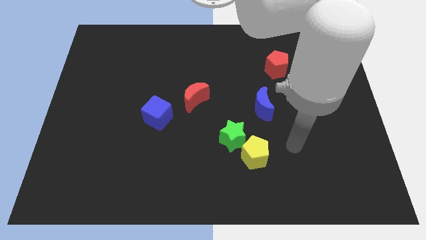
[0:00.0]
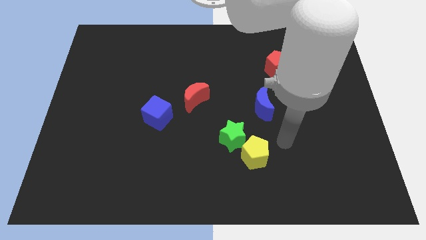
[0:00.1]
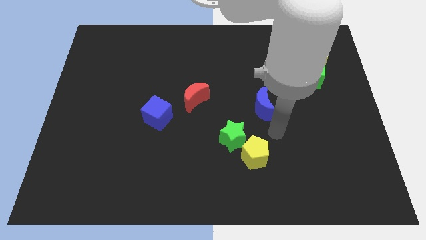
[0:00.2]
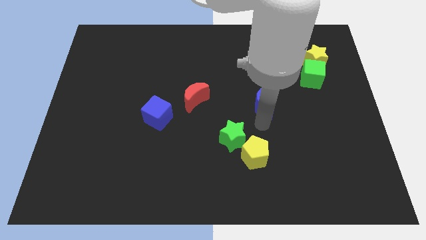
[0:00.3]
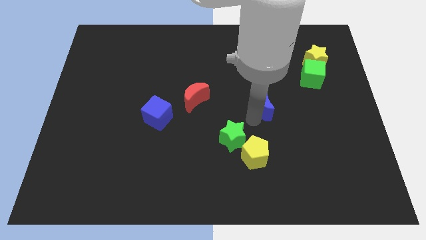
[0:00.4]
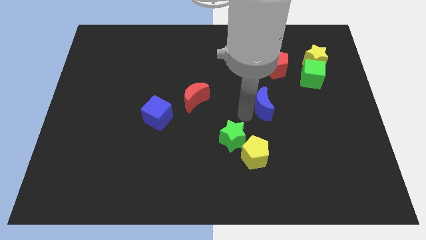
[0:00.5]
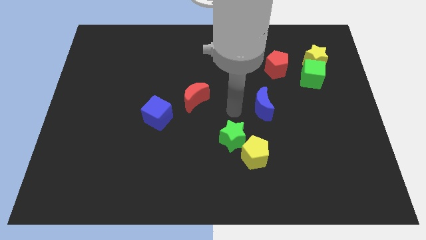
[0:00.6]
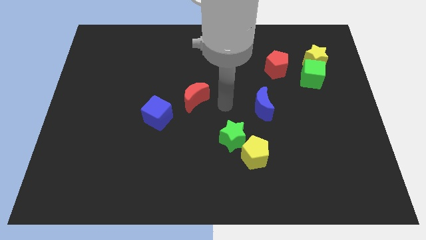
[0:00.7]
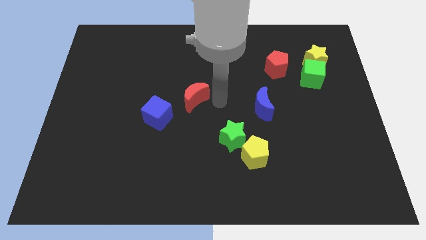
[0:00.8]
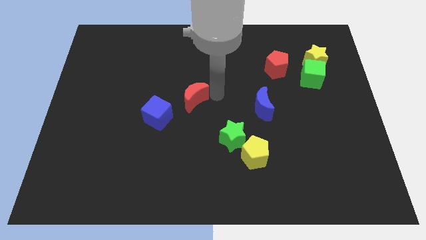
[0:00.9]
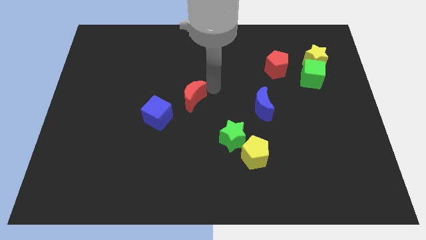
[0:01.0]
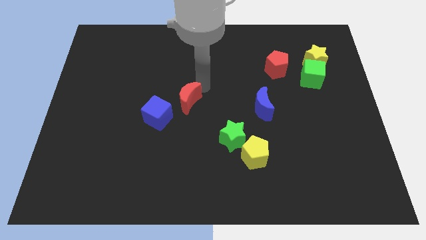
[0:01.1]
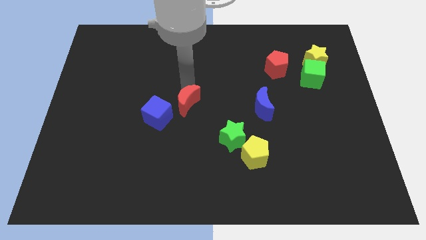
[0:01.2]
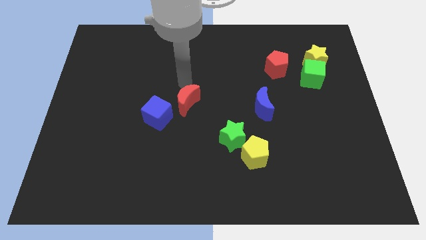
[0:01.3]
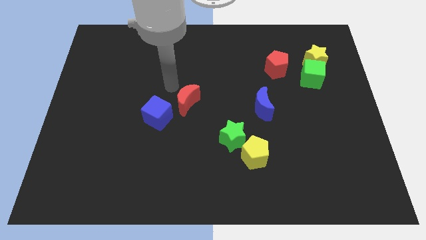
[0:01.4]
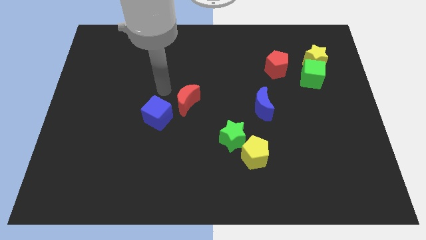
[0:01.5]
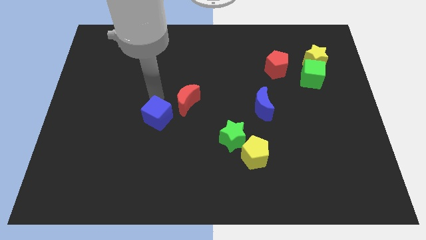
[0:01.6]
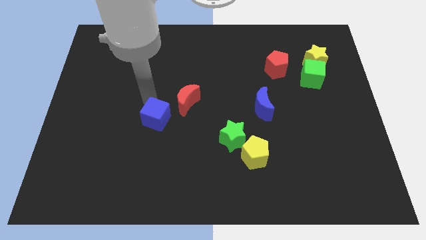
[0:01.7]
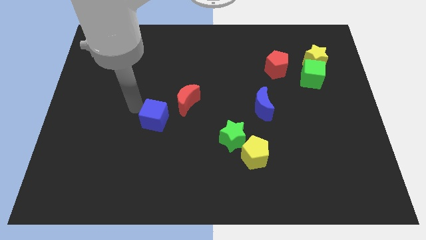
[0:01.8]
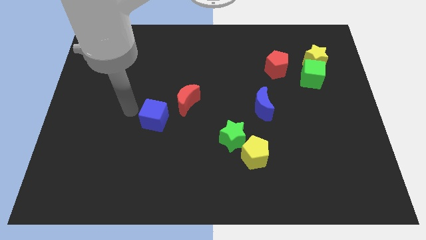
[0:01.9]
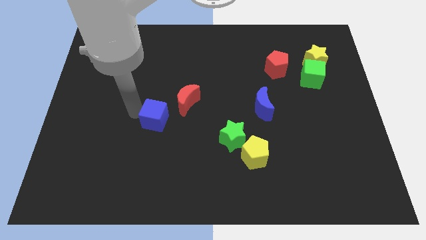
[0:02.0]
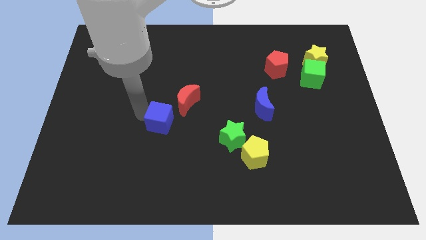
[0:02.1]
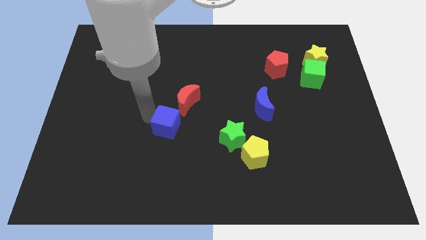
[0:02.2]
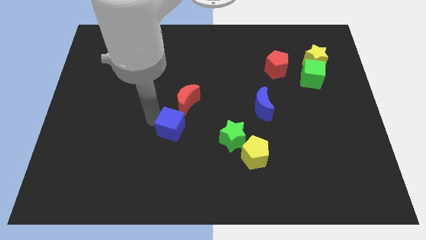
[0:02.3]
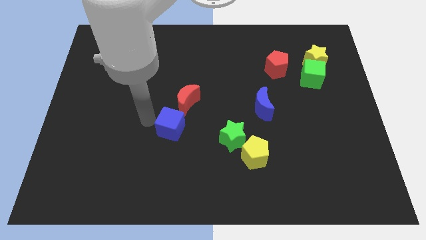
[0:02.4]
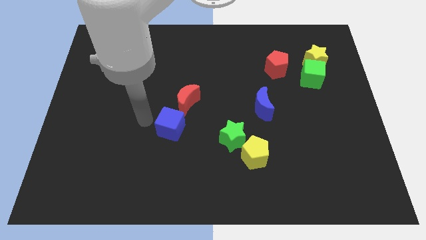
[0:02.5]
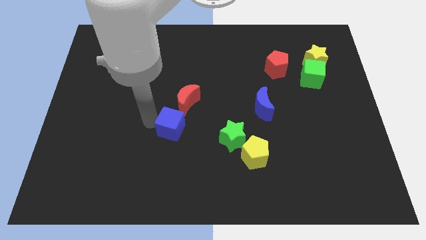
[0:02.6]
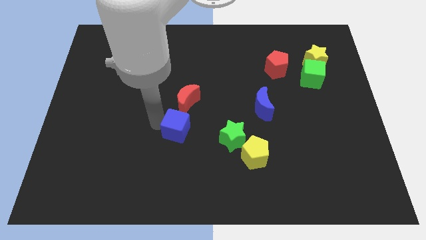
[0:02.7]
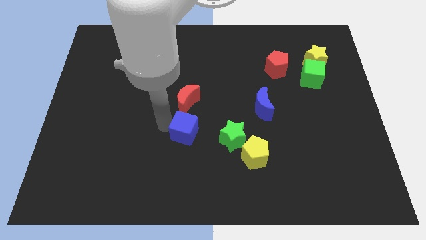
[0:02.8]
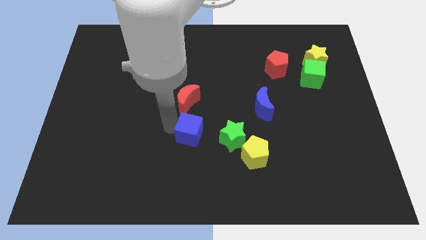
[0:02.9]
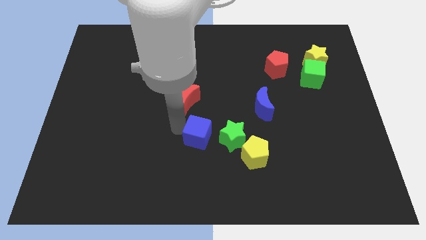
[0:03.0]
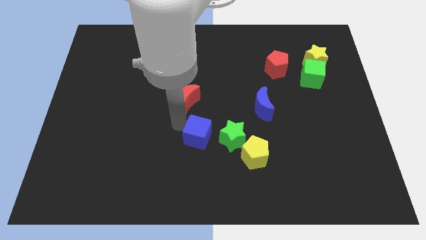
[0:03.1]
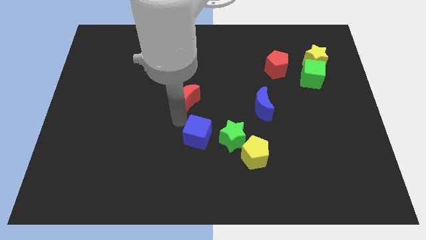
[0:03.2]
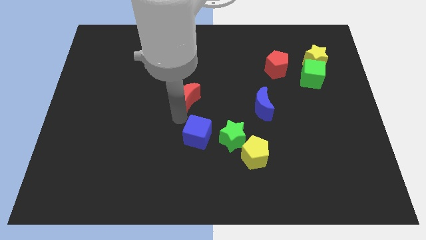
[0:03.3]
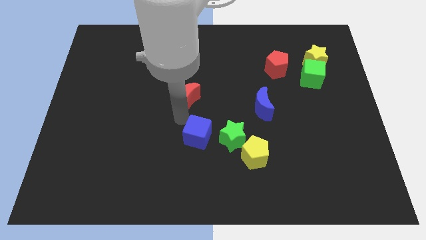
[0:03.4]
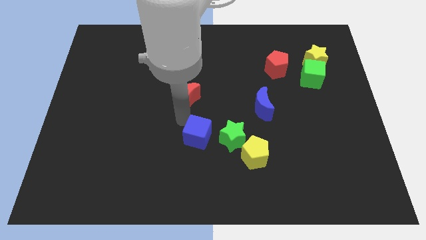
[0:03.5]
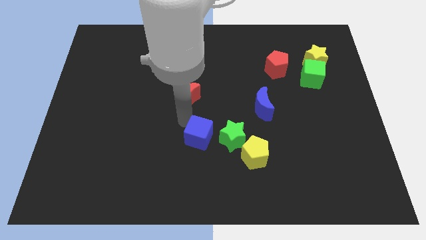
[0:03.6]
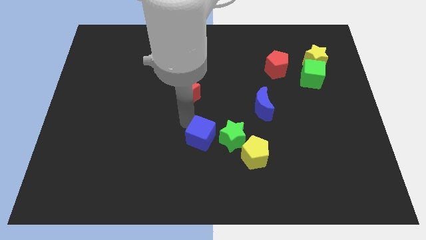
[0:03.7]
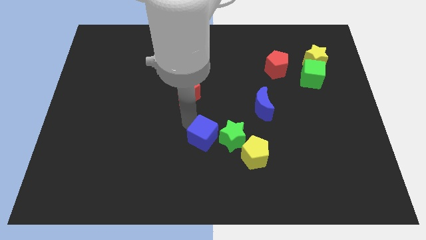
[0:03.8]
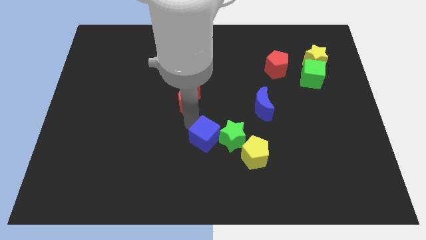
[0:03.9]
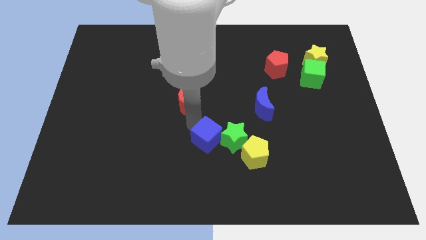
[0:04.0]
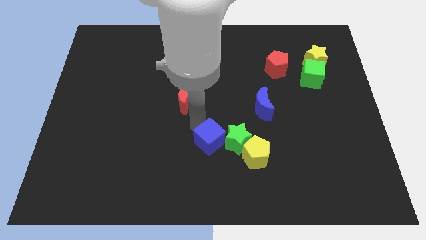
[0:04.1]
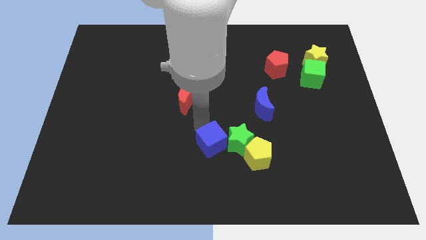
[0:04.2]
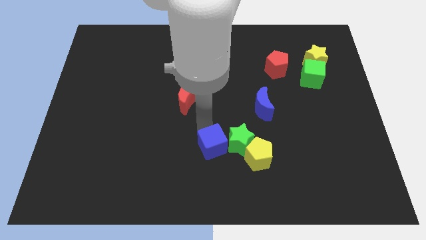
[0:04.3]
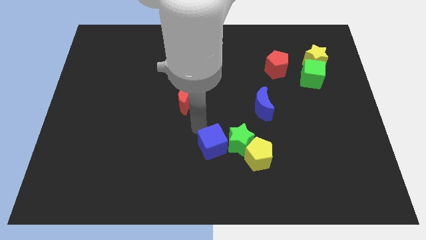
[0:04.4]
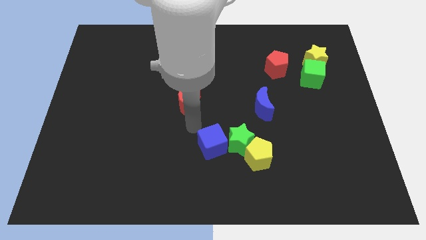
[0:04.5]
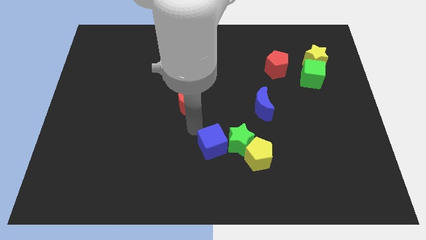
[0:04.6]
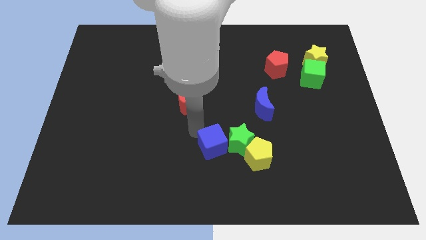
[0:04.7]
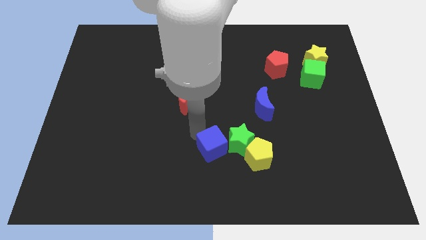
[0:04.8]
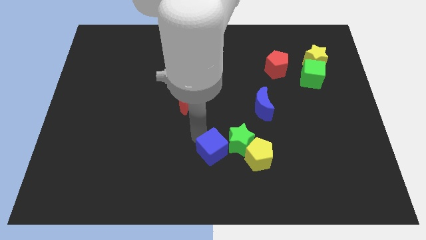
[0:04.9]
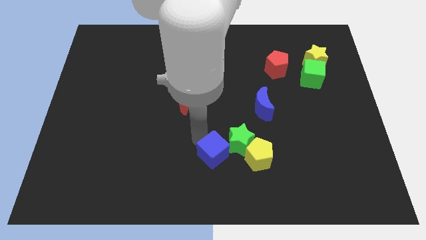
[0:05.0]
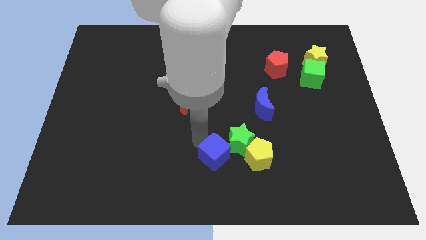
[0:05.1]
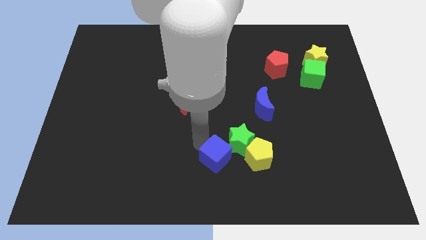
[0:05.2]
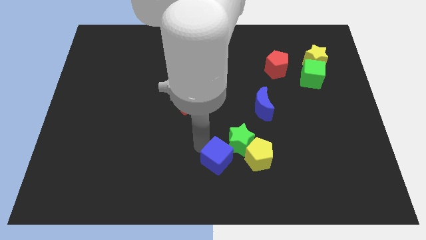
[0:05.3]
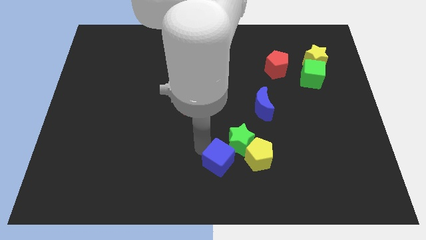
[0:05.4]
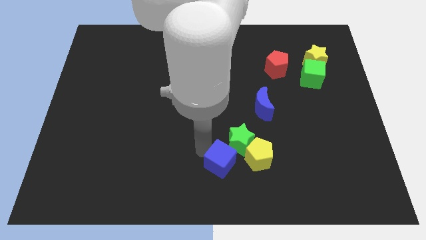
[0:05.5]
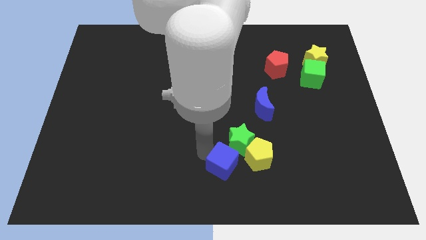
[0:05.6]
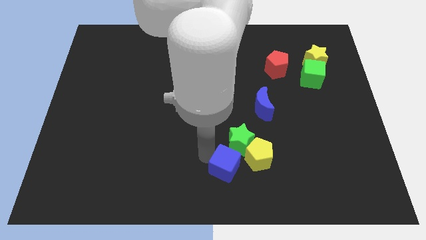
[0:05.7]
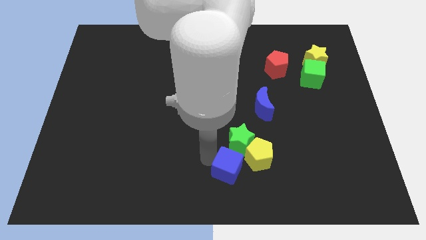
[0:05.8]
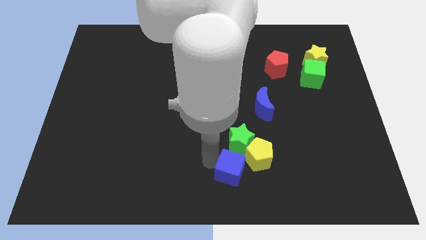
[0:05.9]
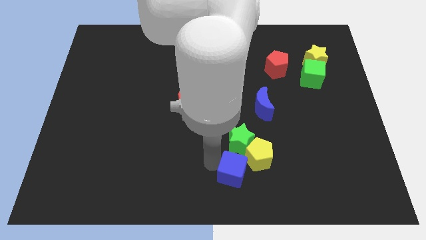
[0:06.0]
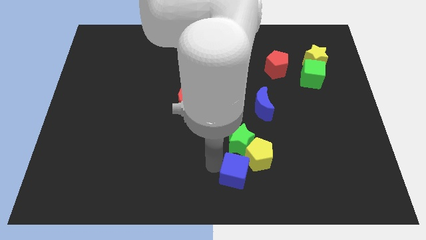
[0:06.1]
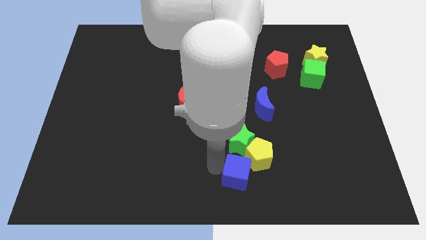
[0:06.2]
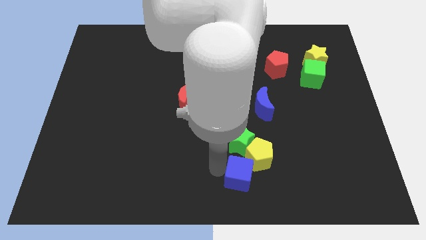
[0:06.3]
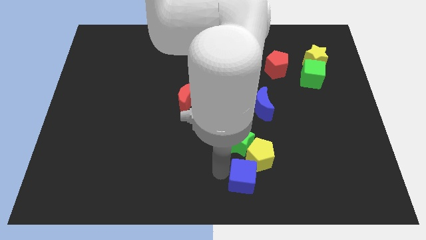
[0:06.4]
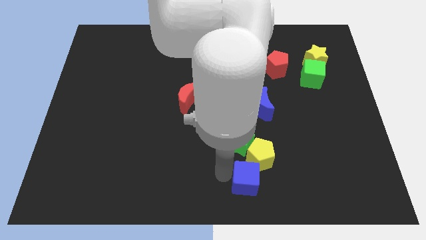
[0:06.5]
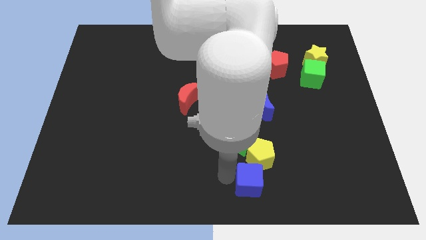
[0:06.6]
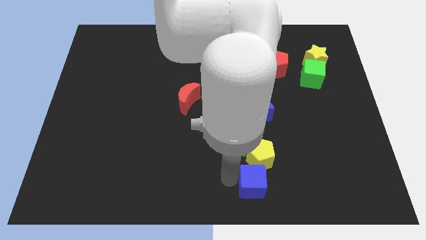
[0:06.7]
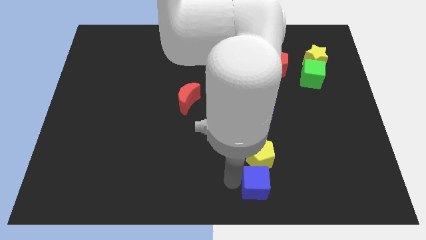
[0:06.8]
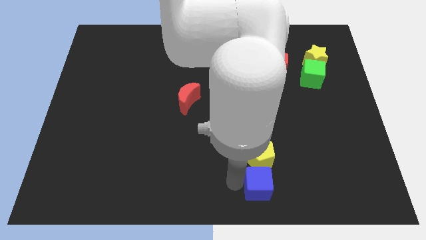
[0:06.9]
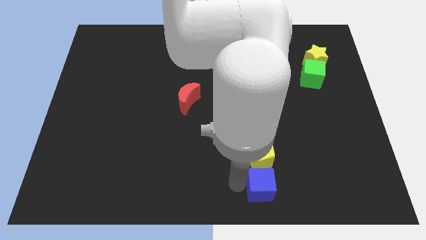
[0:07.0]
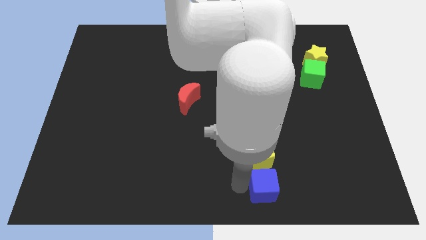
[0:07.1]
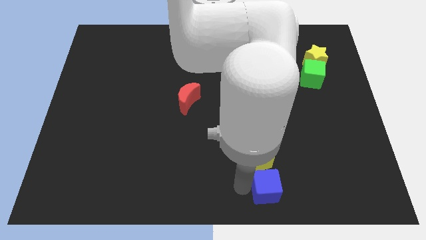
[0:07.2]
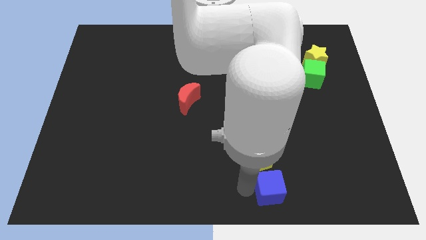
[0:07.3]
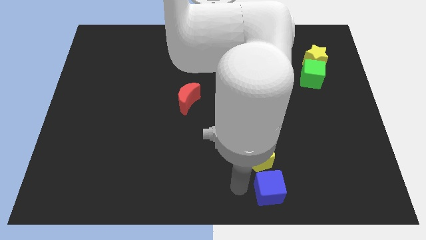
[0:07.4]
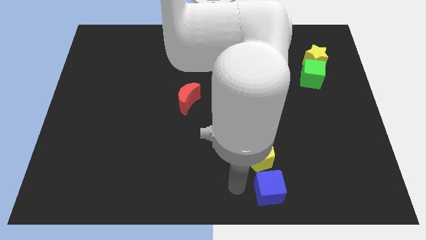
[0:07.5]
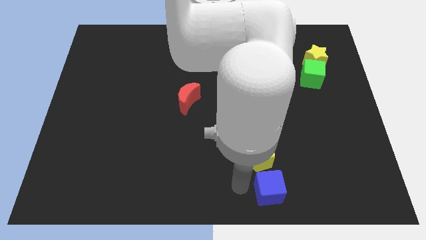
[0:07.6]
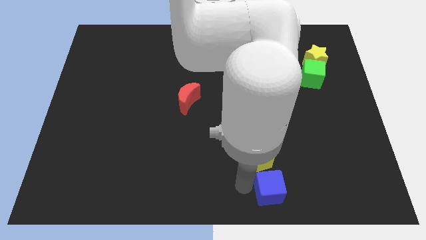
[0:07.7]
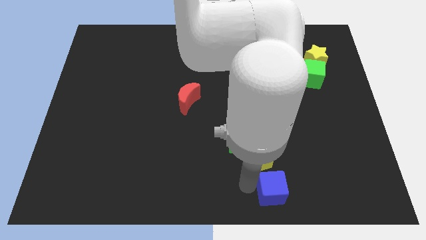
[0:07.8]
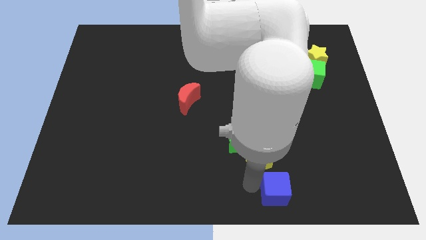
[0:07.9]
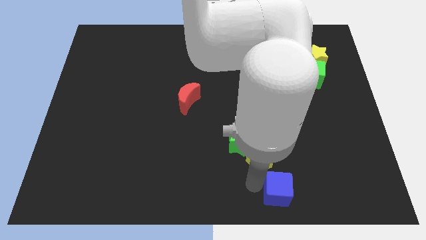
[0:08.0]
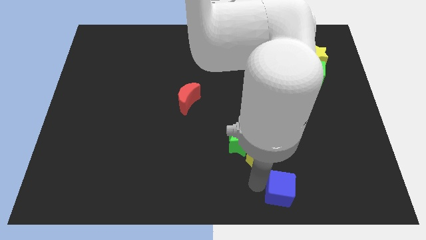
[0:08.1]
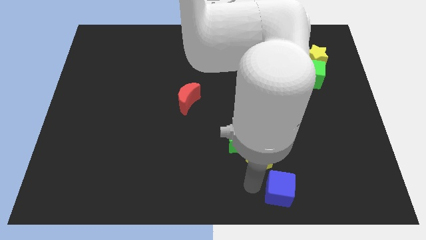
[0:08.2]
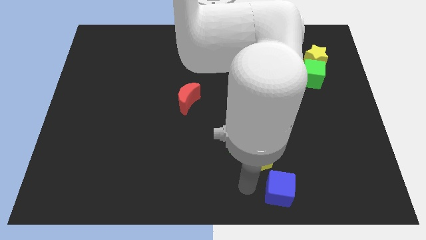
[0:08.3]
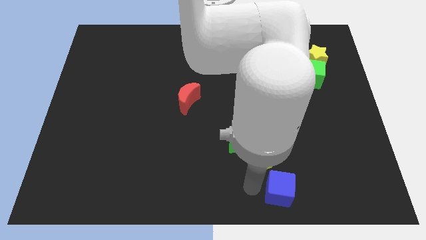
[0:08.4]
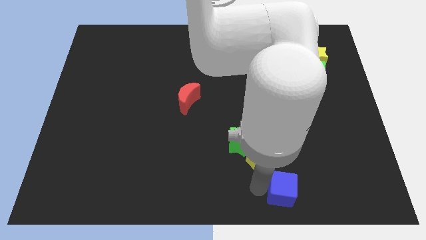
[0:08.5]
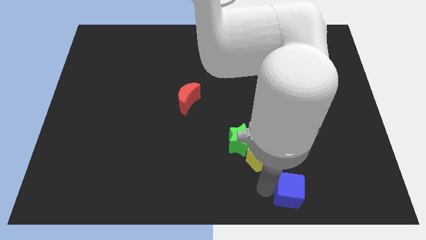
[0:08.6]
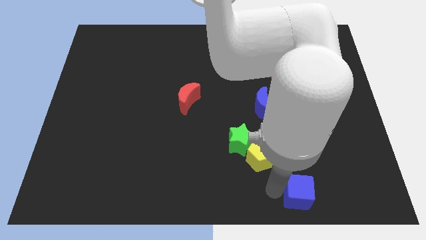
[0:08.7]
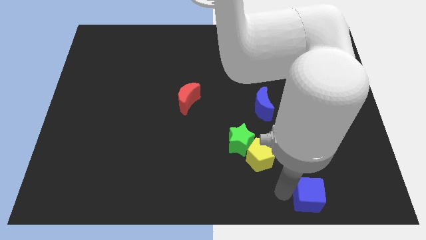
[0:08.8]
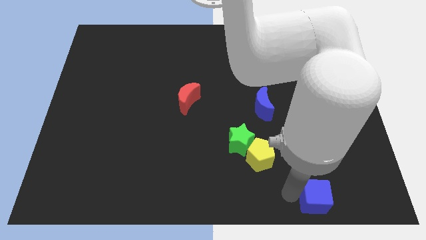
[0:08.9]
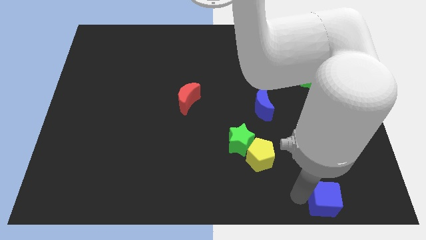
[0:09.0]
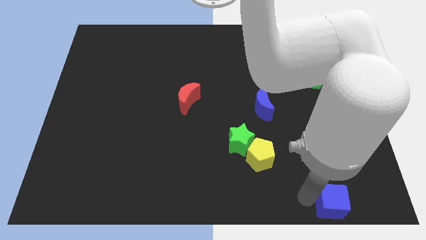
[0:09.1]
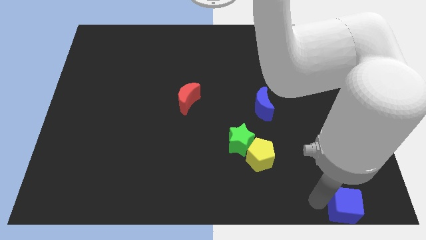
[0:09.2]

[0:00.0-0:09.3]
move the blue cube to the lower right corner
